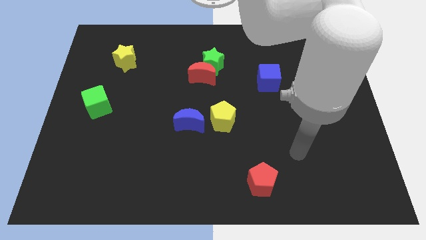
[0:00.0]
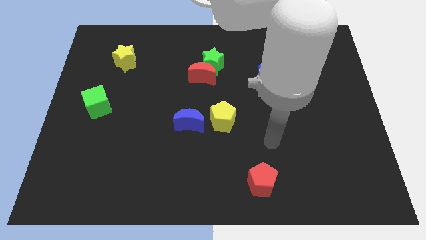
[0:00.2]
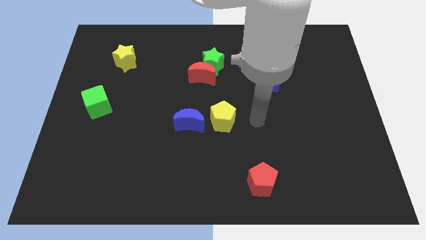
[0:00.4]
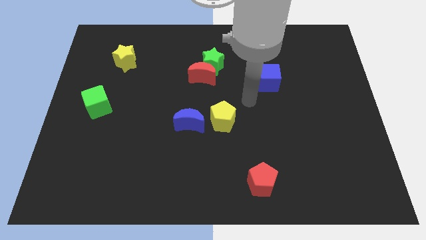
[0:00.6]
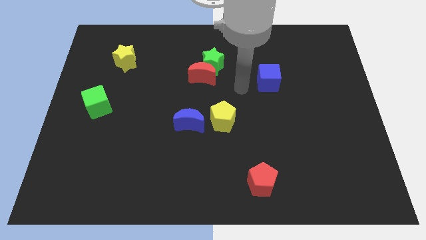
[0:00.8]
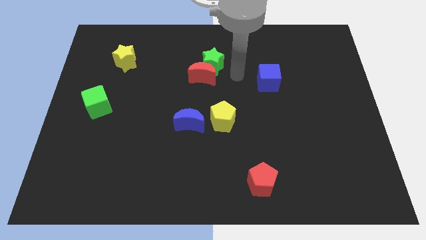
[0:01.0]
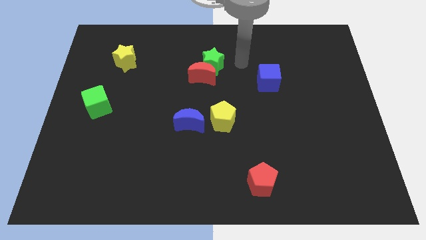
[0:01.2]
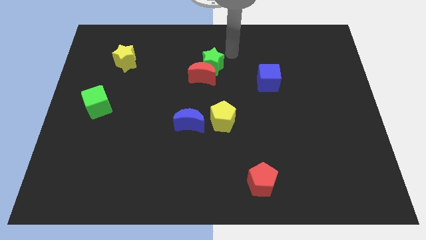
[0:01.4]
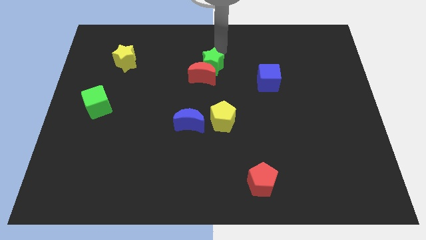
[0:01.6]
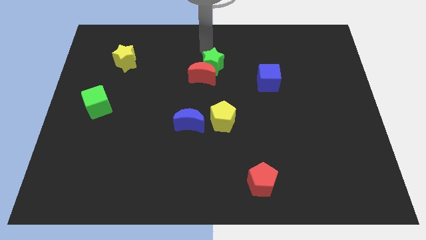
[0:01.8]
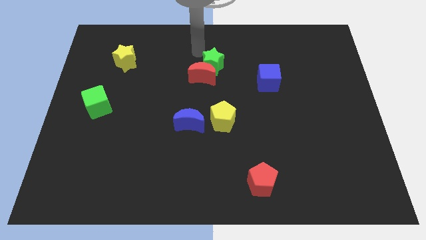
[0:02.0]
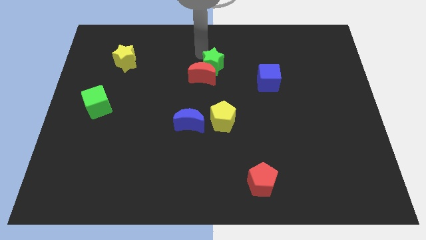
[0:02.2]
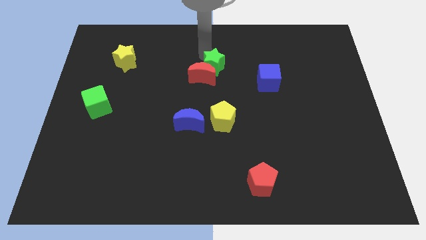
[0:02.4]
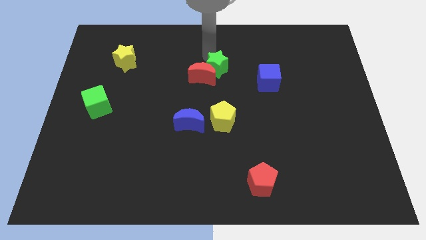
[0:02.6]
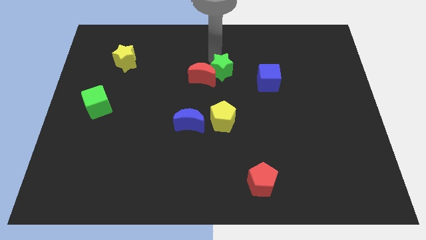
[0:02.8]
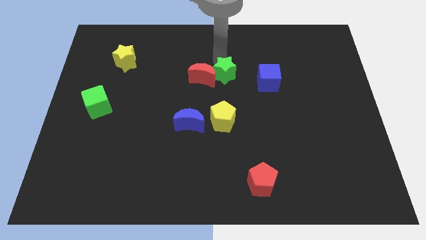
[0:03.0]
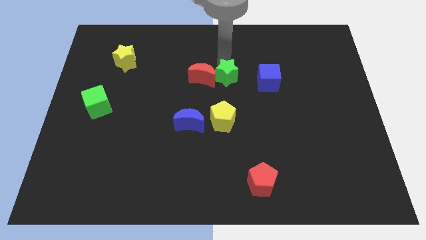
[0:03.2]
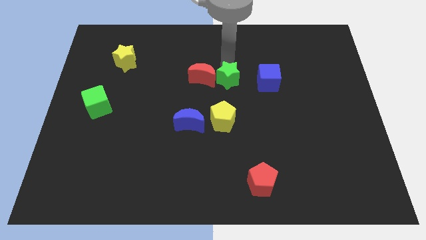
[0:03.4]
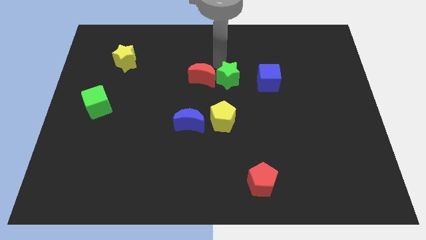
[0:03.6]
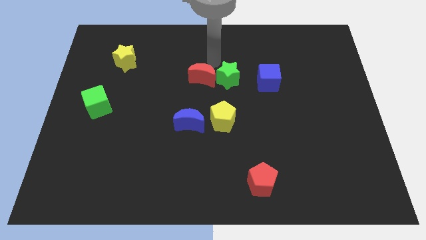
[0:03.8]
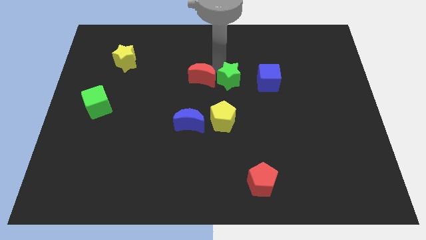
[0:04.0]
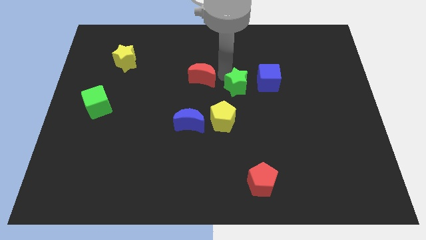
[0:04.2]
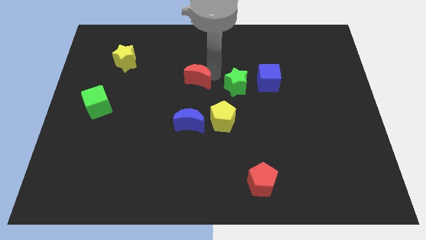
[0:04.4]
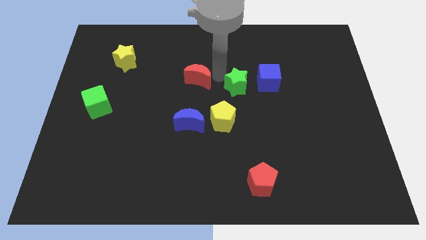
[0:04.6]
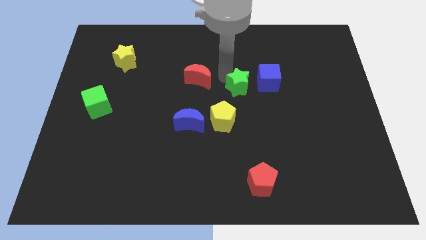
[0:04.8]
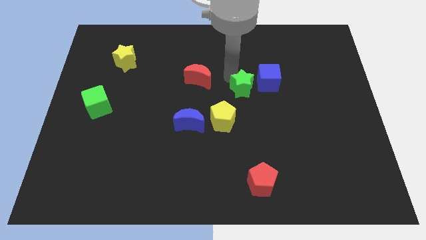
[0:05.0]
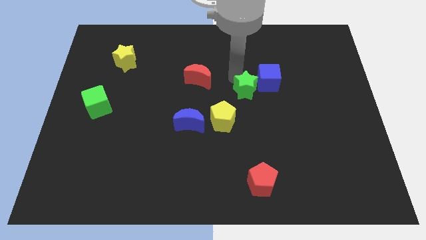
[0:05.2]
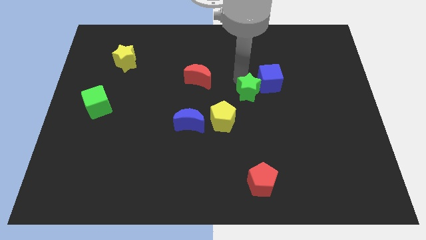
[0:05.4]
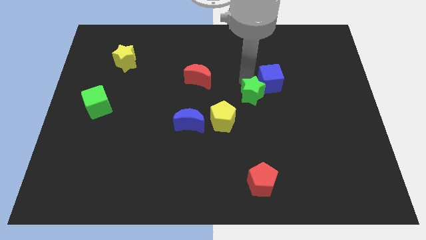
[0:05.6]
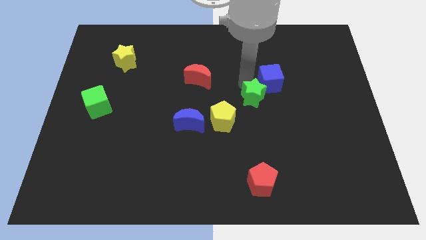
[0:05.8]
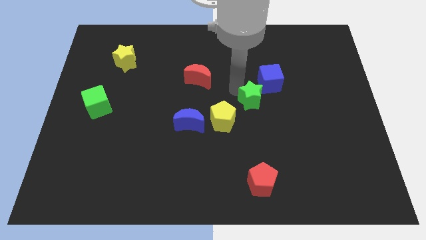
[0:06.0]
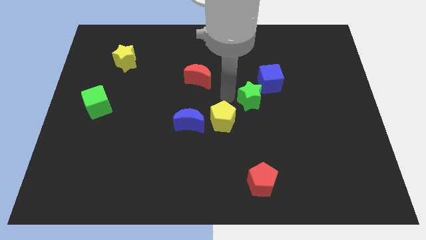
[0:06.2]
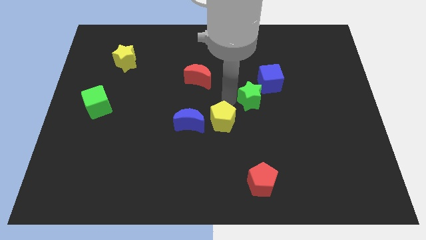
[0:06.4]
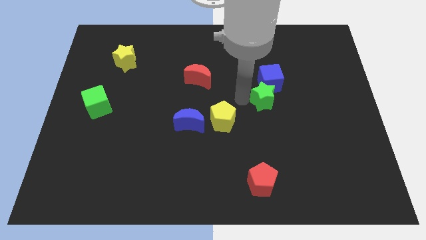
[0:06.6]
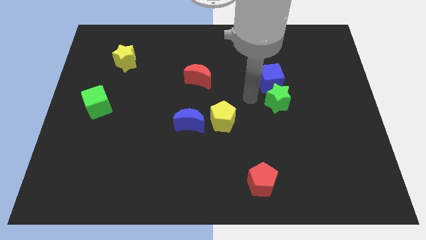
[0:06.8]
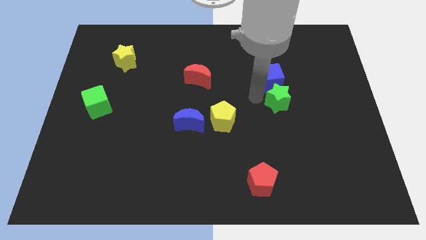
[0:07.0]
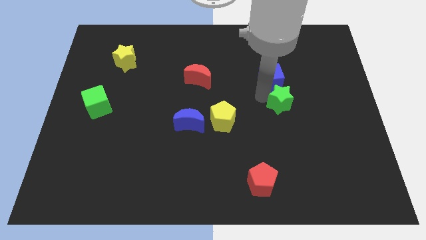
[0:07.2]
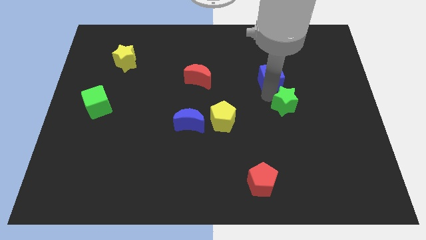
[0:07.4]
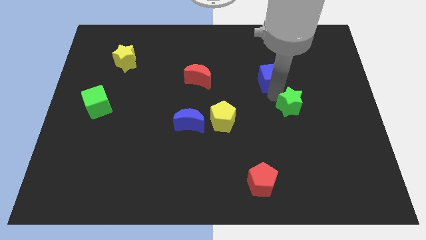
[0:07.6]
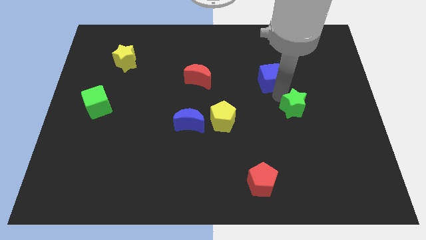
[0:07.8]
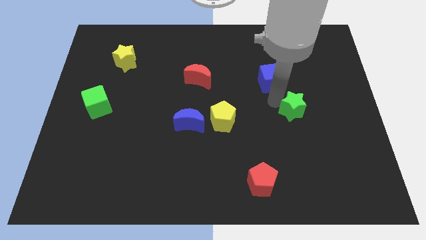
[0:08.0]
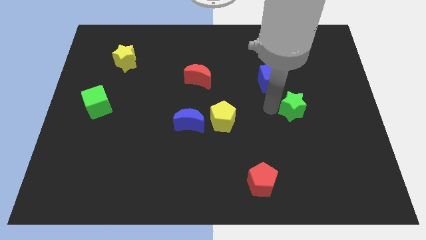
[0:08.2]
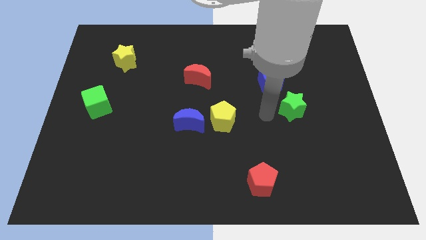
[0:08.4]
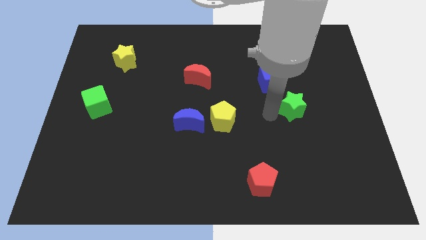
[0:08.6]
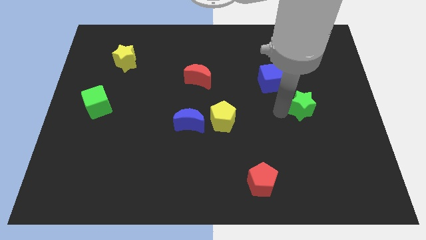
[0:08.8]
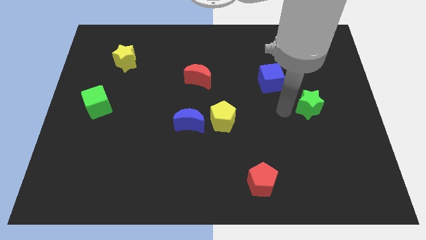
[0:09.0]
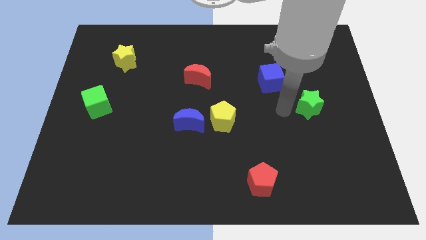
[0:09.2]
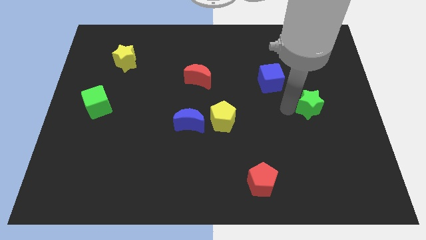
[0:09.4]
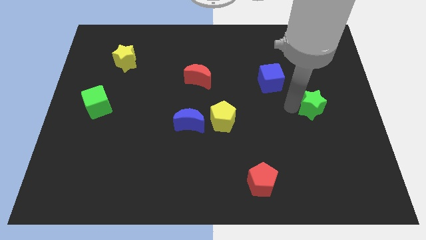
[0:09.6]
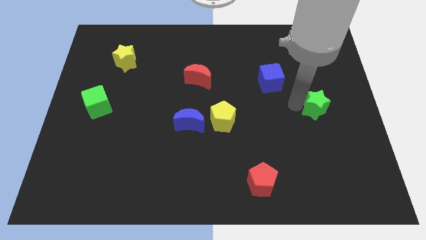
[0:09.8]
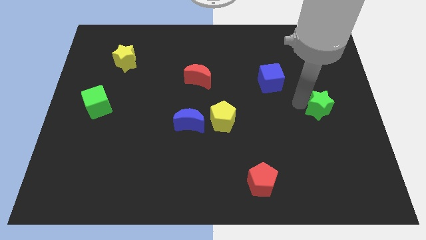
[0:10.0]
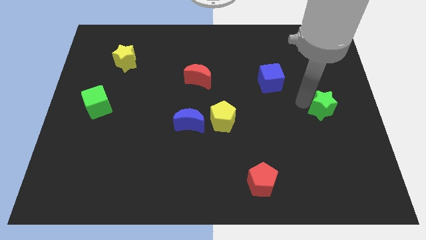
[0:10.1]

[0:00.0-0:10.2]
slide the green star to the right side of the board

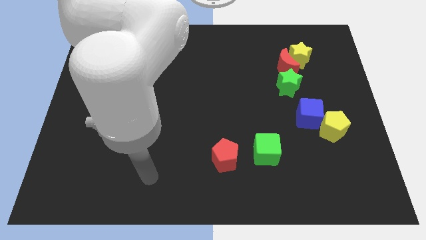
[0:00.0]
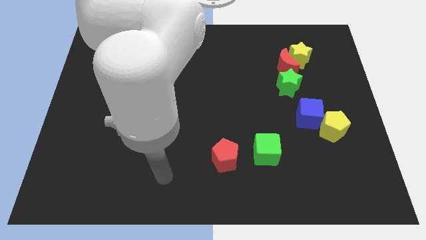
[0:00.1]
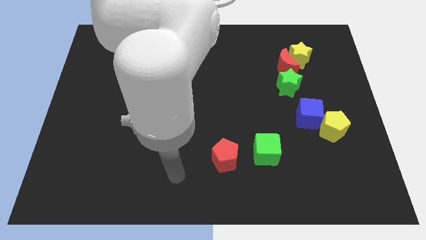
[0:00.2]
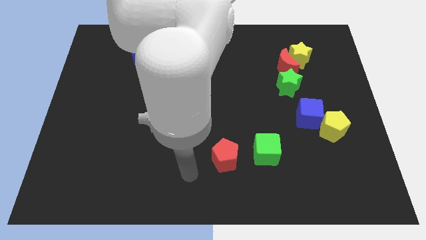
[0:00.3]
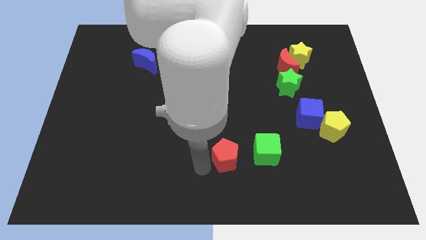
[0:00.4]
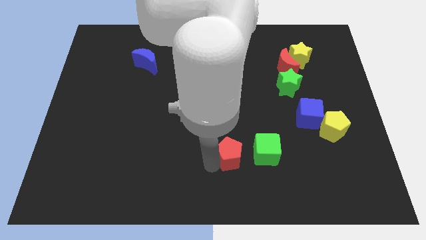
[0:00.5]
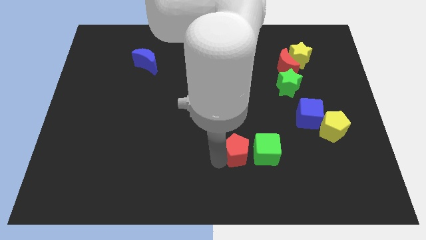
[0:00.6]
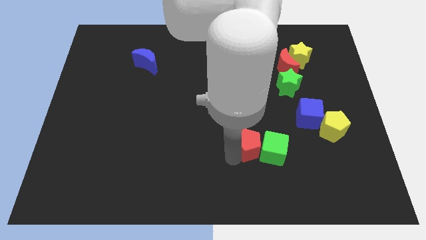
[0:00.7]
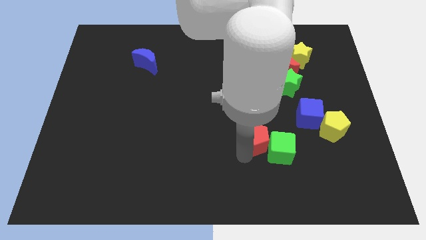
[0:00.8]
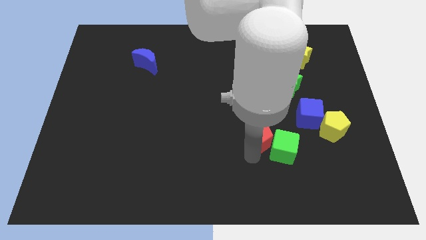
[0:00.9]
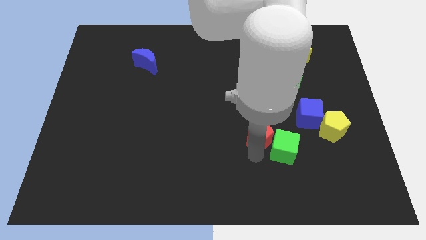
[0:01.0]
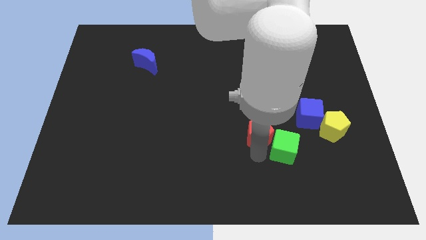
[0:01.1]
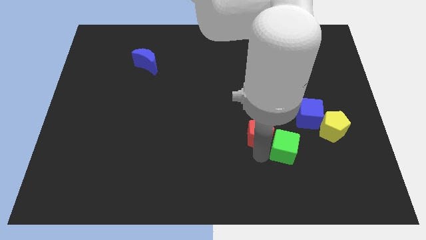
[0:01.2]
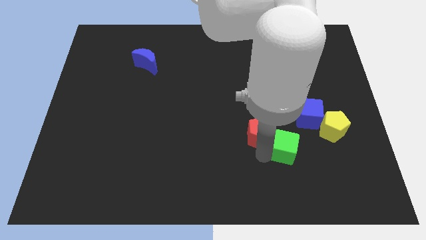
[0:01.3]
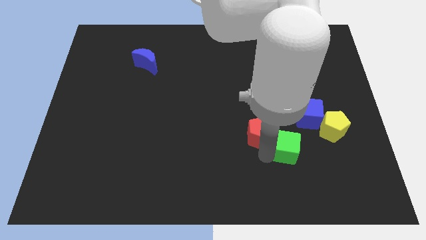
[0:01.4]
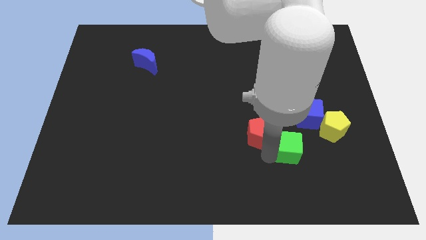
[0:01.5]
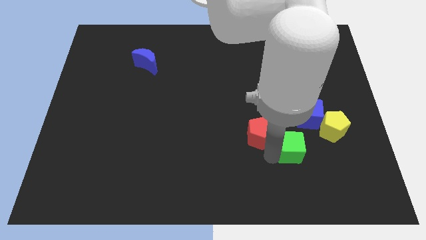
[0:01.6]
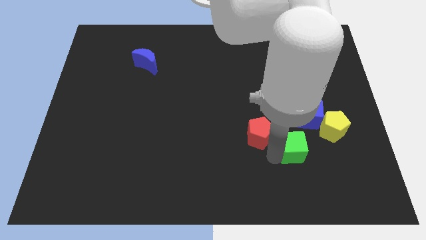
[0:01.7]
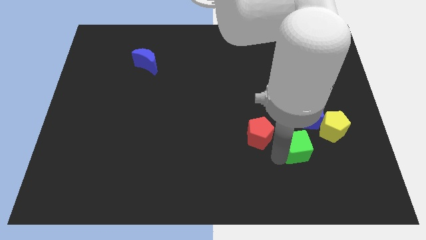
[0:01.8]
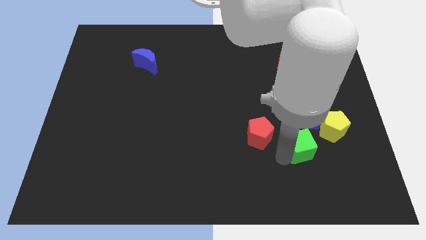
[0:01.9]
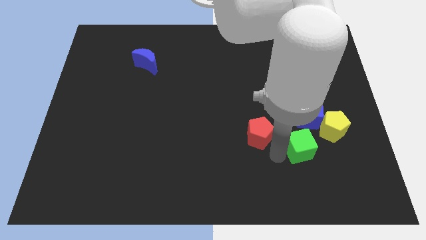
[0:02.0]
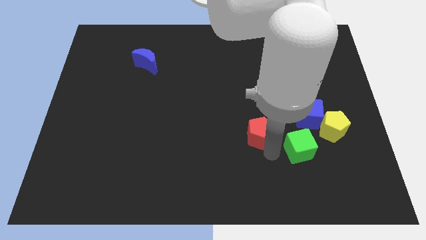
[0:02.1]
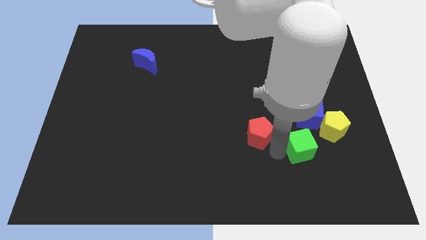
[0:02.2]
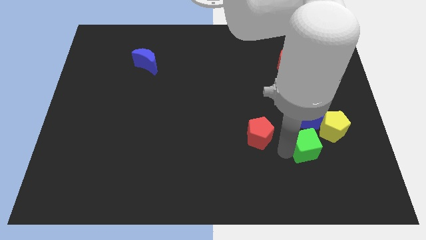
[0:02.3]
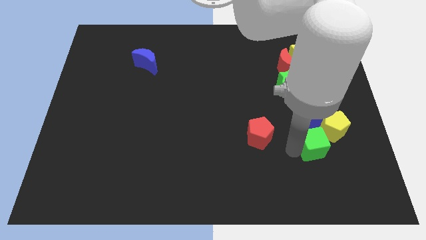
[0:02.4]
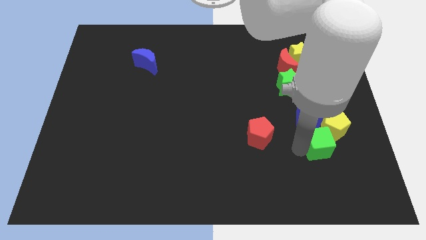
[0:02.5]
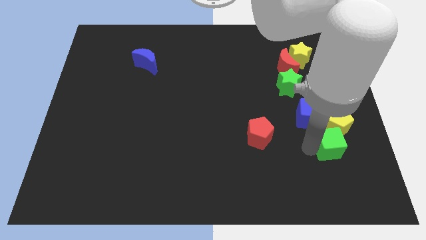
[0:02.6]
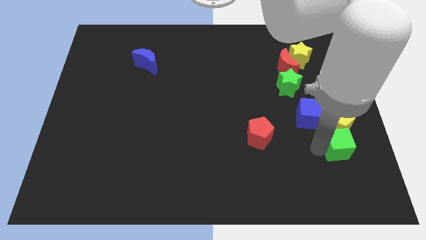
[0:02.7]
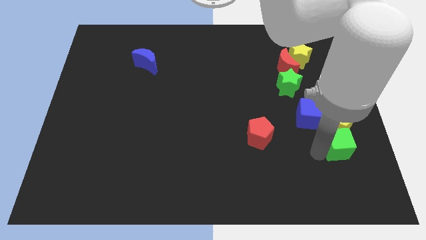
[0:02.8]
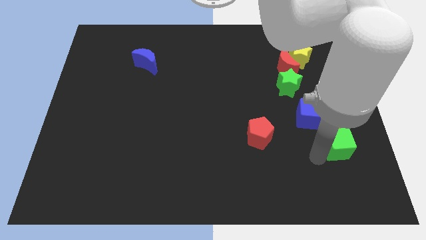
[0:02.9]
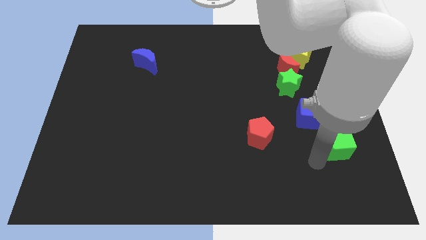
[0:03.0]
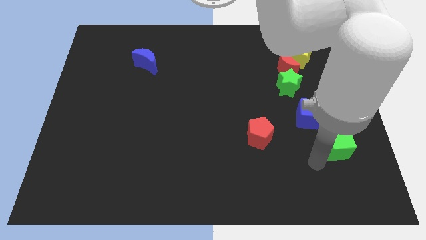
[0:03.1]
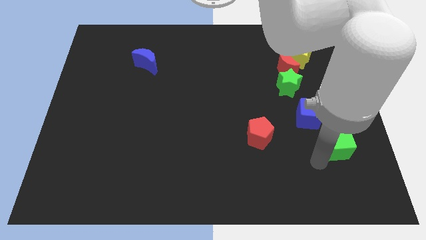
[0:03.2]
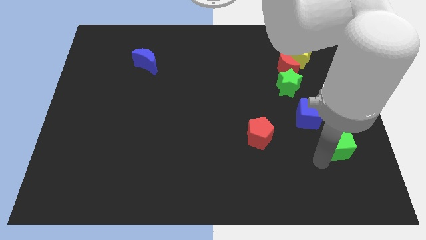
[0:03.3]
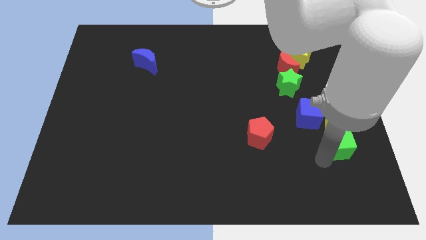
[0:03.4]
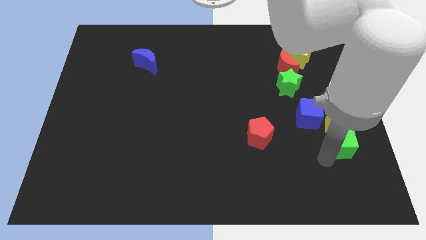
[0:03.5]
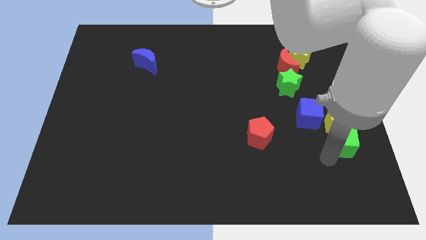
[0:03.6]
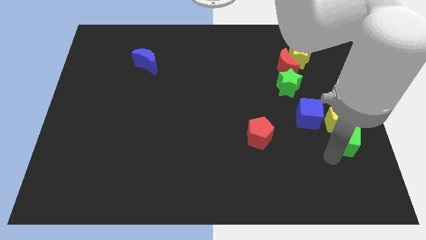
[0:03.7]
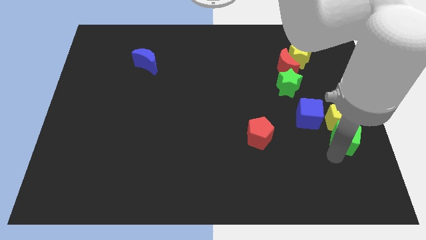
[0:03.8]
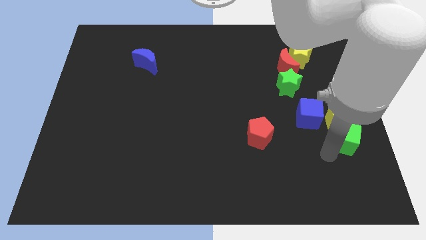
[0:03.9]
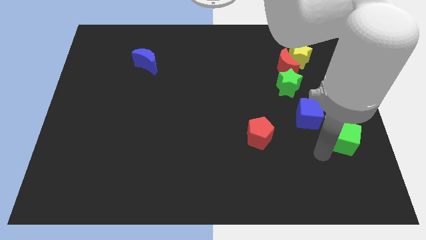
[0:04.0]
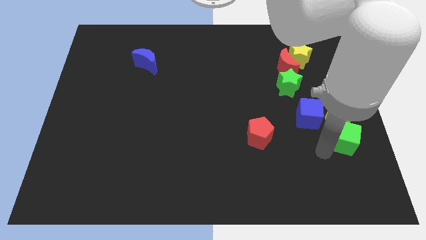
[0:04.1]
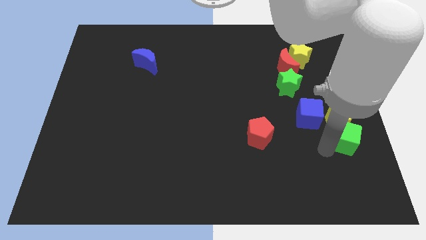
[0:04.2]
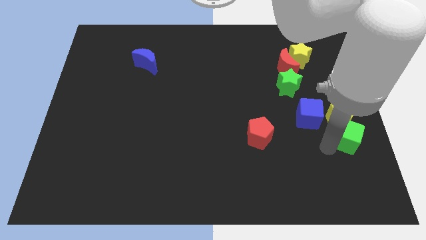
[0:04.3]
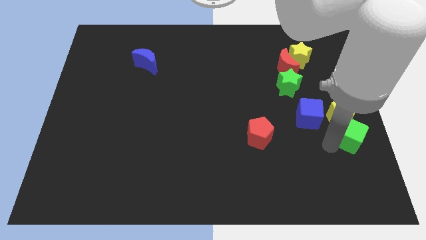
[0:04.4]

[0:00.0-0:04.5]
move the green cube to the right side of the board
